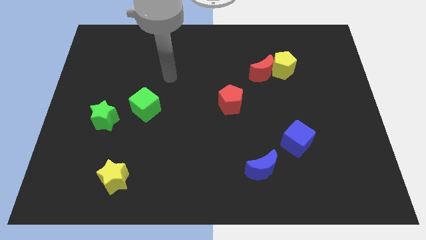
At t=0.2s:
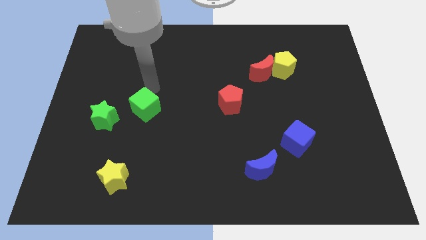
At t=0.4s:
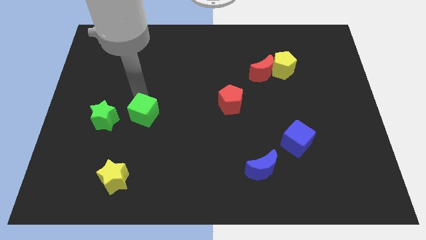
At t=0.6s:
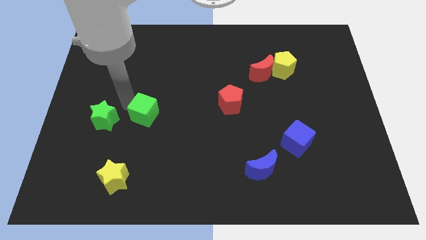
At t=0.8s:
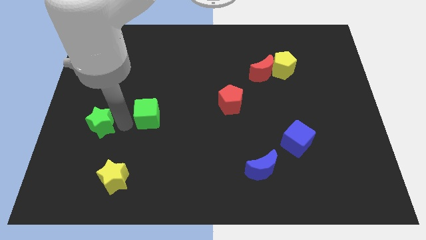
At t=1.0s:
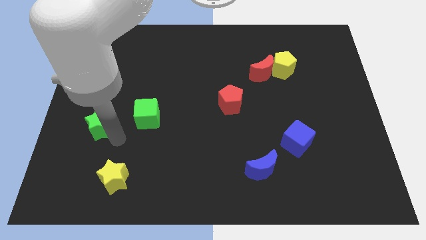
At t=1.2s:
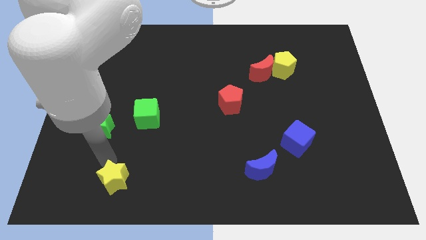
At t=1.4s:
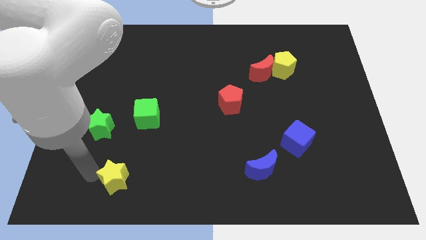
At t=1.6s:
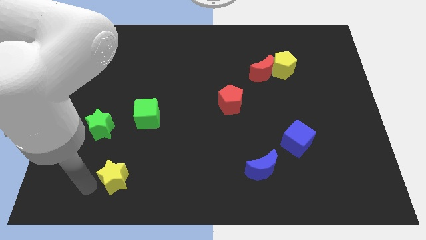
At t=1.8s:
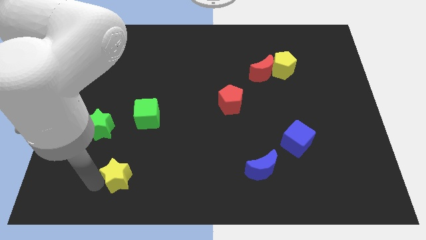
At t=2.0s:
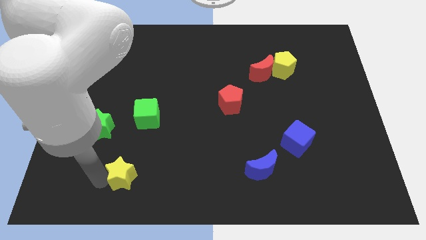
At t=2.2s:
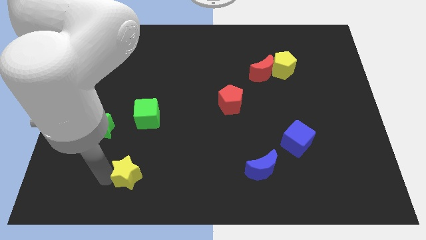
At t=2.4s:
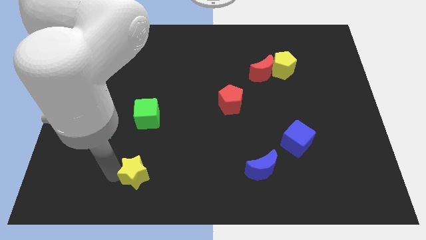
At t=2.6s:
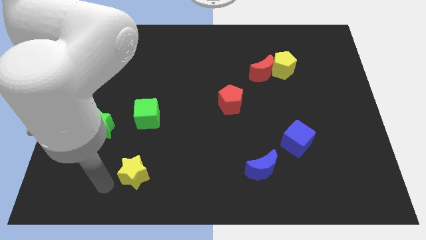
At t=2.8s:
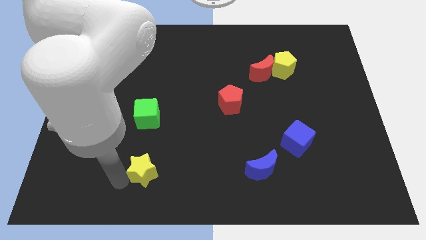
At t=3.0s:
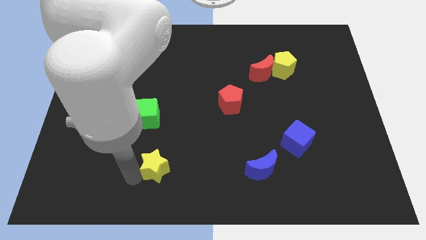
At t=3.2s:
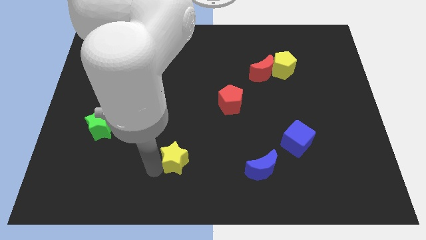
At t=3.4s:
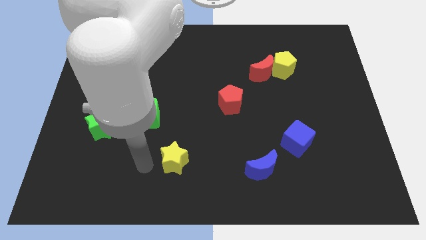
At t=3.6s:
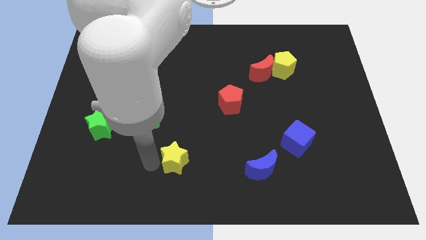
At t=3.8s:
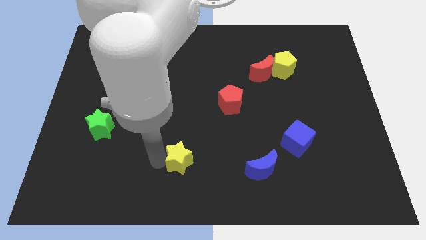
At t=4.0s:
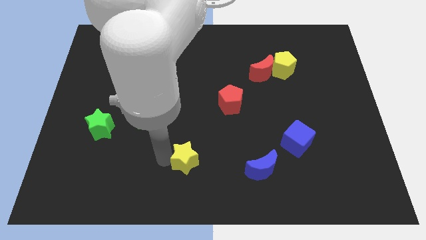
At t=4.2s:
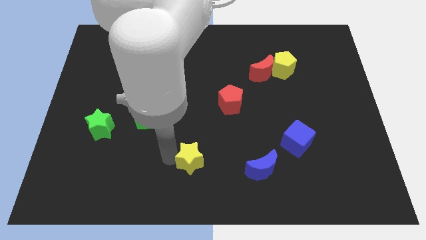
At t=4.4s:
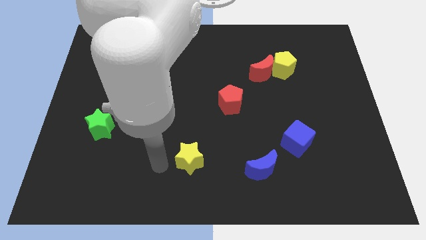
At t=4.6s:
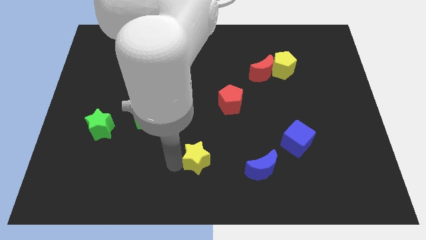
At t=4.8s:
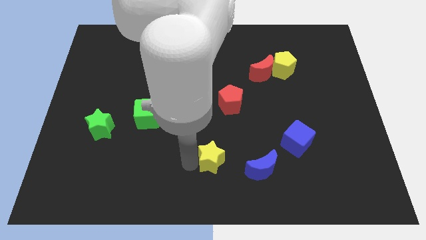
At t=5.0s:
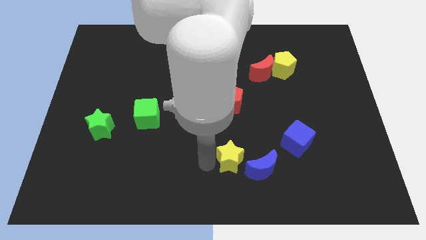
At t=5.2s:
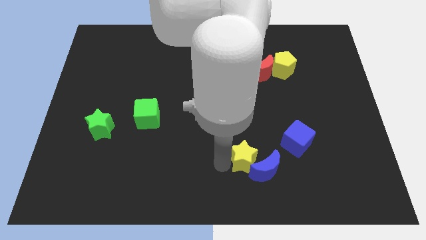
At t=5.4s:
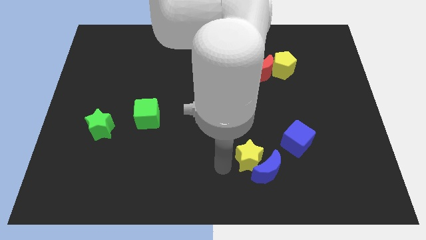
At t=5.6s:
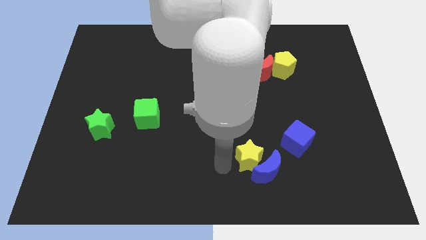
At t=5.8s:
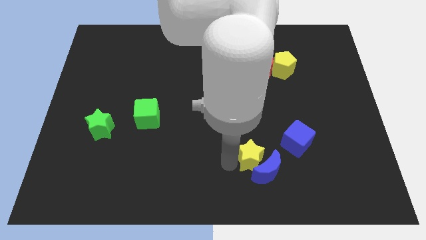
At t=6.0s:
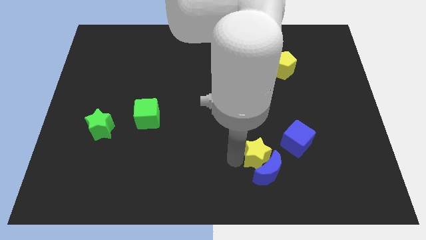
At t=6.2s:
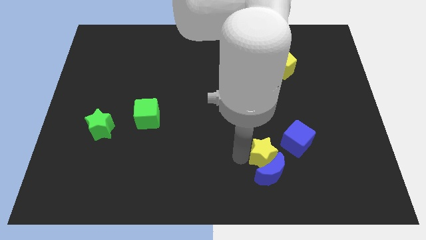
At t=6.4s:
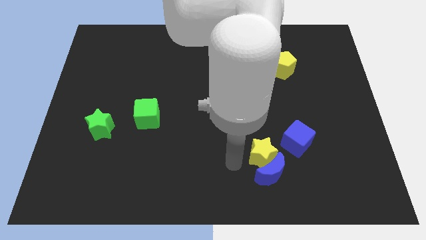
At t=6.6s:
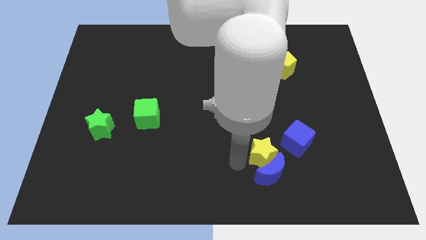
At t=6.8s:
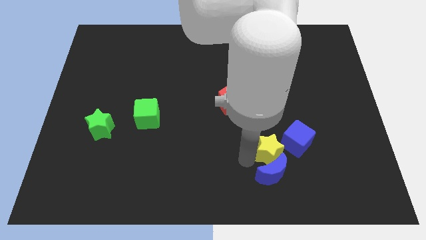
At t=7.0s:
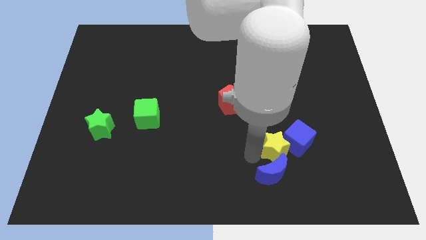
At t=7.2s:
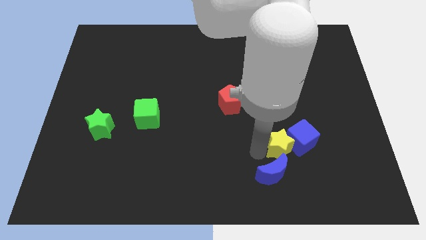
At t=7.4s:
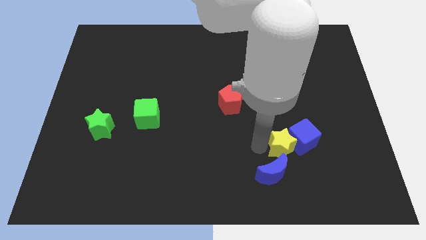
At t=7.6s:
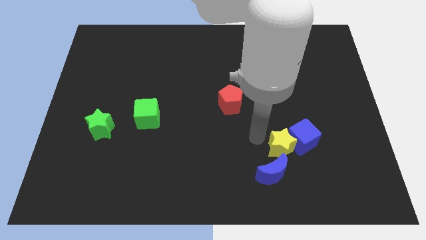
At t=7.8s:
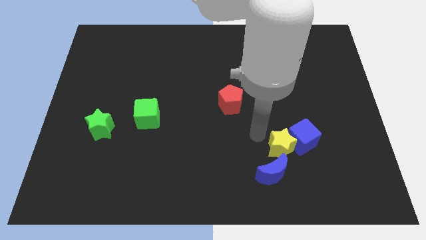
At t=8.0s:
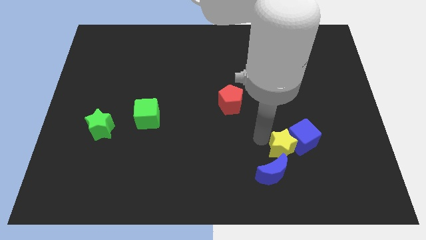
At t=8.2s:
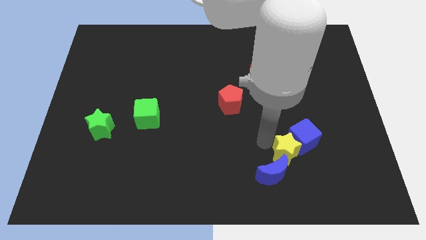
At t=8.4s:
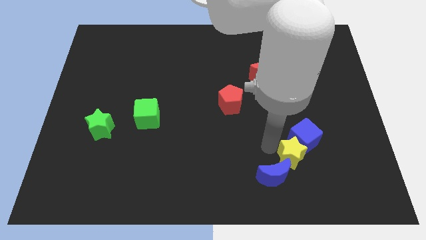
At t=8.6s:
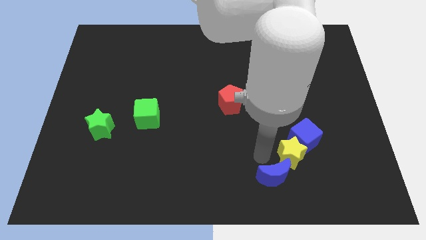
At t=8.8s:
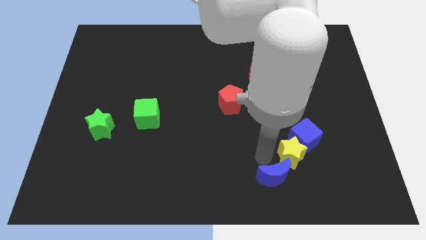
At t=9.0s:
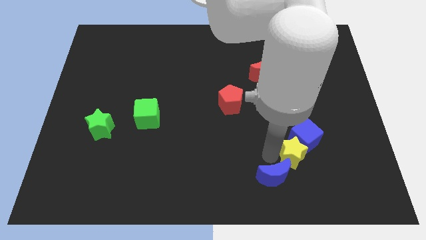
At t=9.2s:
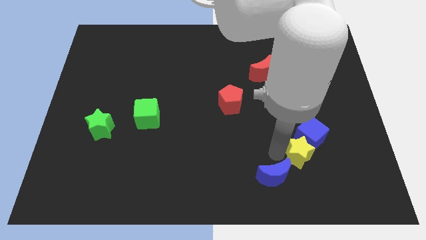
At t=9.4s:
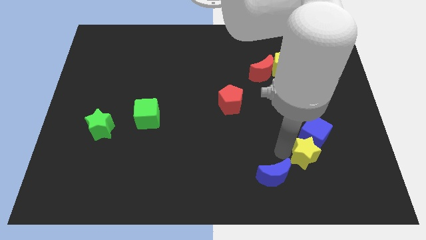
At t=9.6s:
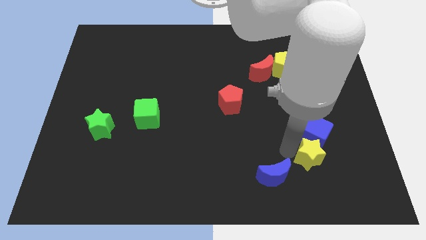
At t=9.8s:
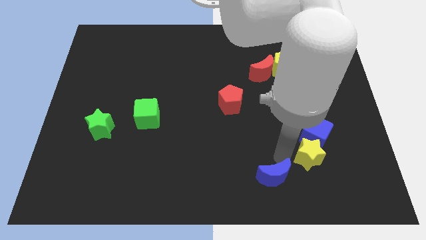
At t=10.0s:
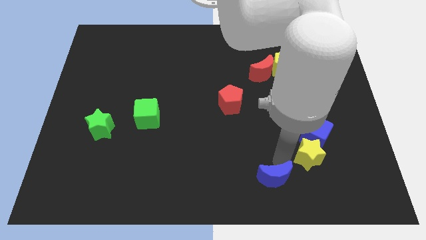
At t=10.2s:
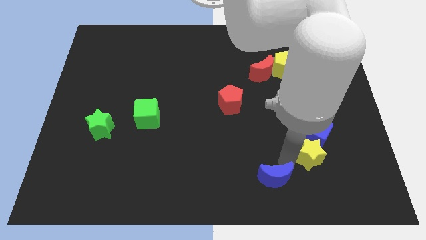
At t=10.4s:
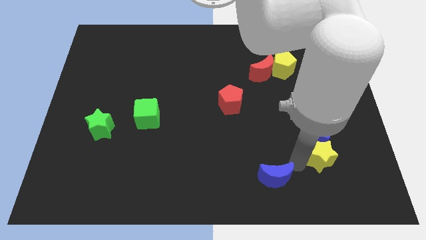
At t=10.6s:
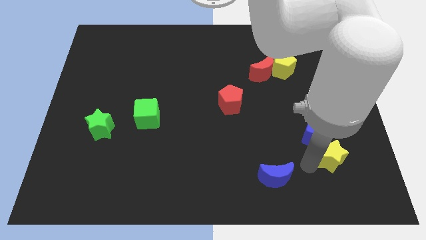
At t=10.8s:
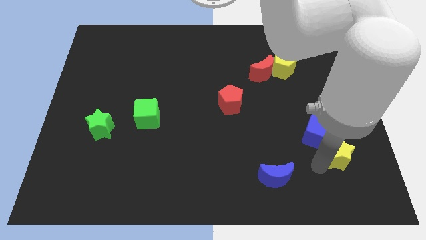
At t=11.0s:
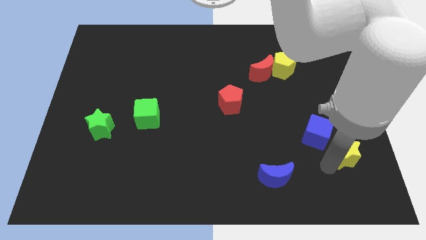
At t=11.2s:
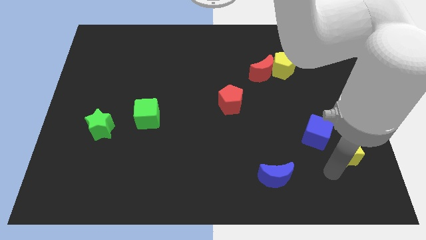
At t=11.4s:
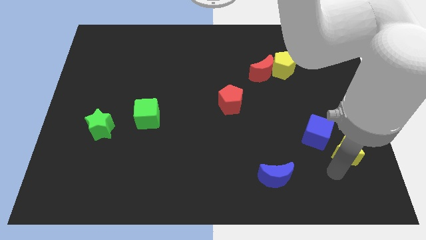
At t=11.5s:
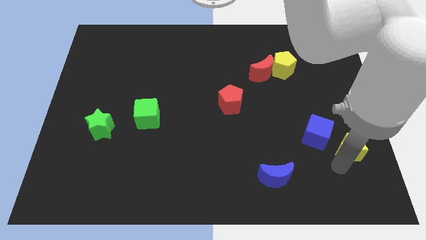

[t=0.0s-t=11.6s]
slide the yellow star just right of the blue cube

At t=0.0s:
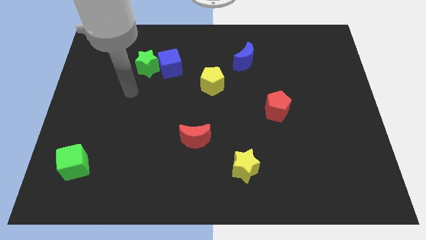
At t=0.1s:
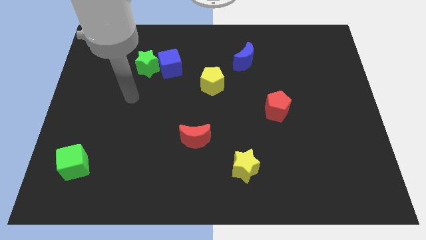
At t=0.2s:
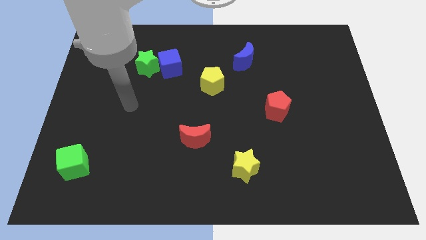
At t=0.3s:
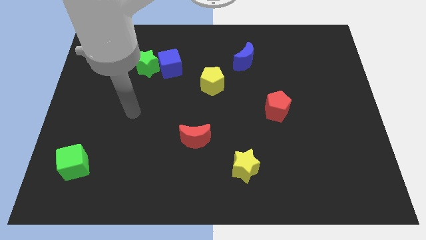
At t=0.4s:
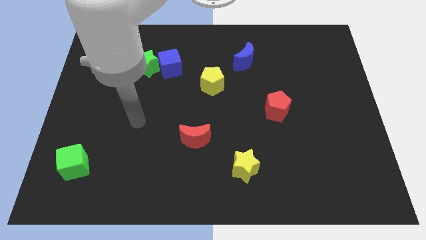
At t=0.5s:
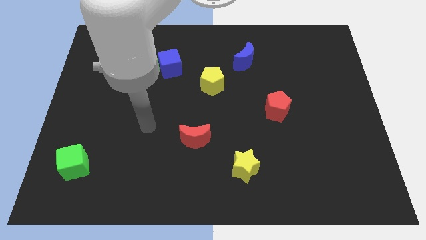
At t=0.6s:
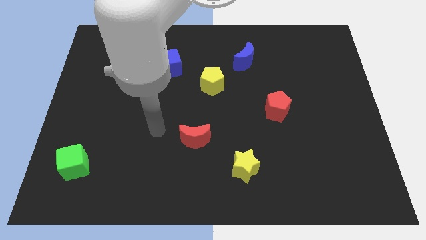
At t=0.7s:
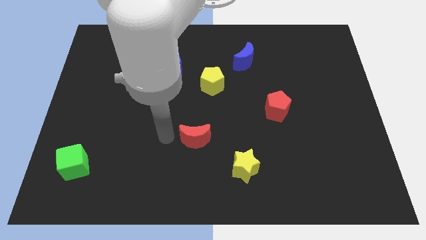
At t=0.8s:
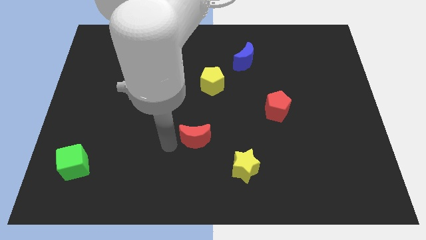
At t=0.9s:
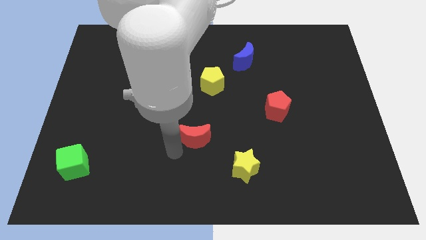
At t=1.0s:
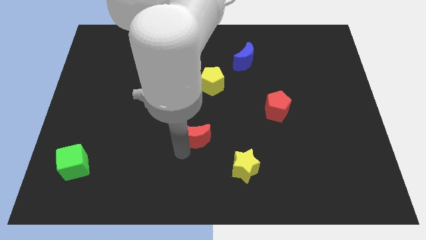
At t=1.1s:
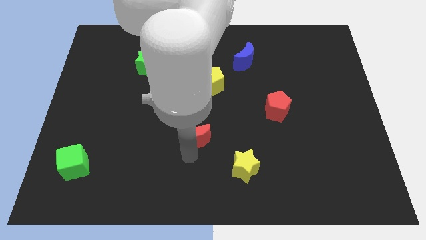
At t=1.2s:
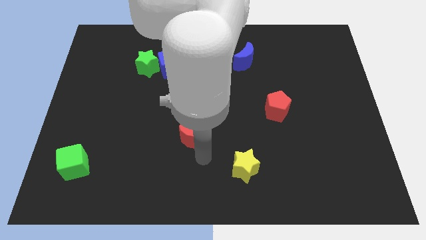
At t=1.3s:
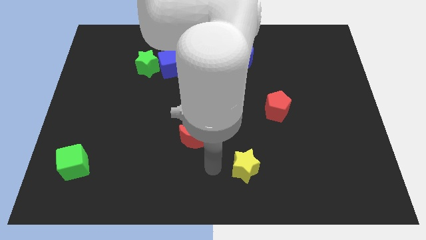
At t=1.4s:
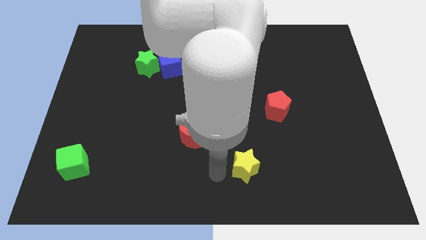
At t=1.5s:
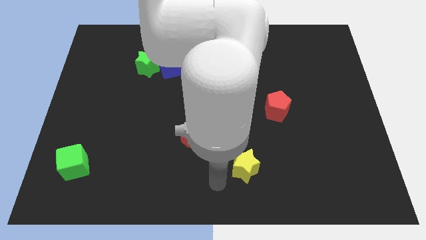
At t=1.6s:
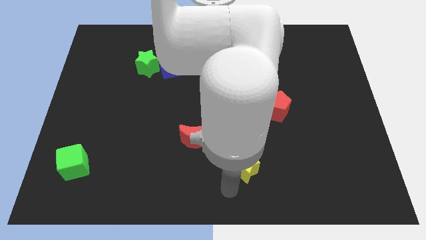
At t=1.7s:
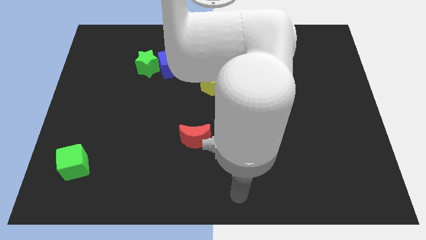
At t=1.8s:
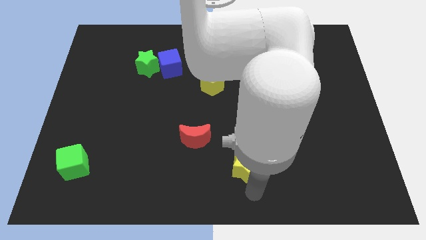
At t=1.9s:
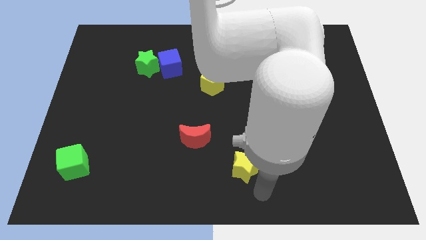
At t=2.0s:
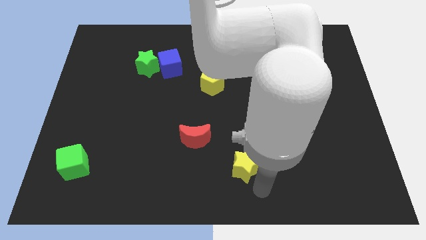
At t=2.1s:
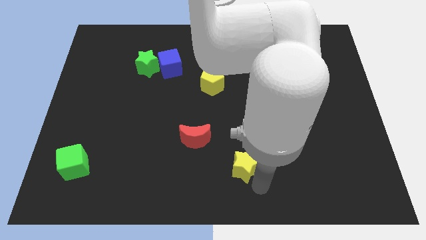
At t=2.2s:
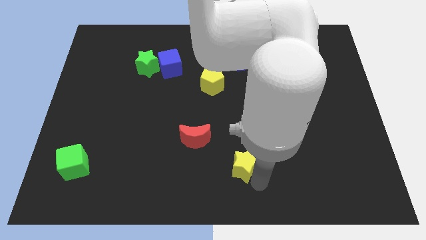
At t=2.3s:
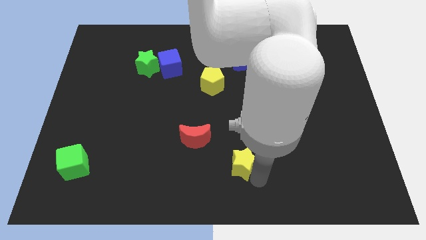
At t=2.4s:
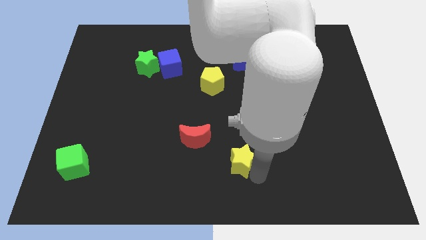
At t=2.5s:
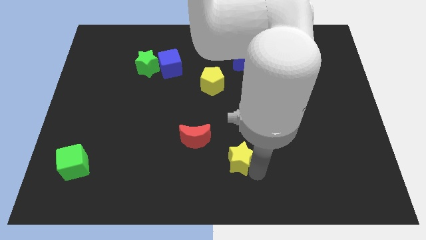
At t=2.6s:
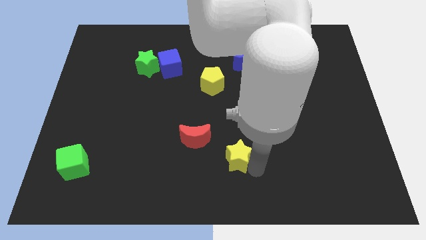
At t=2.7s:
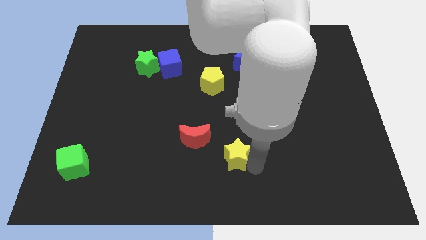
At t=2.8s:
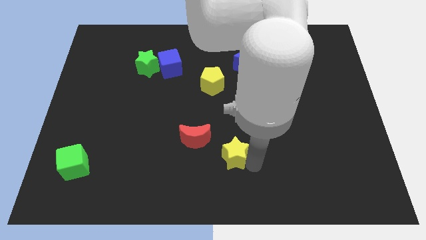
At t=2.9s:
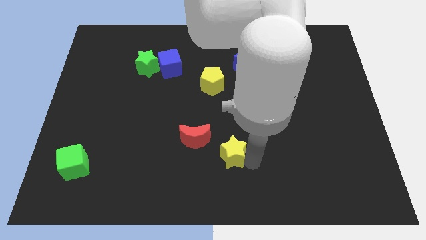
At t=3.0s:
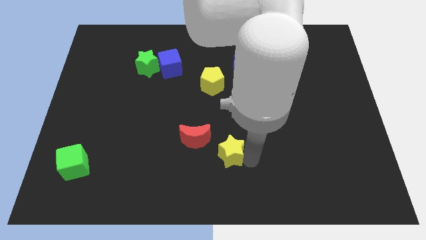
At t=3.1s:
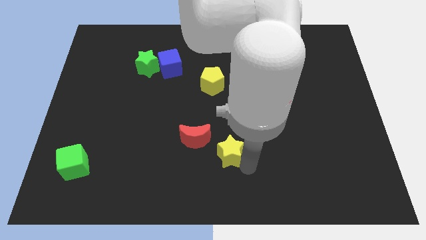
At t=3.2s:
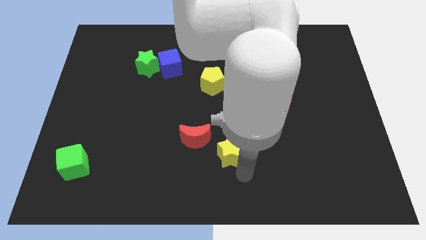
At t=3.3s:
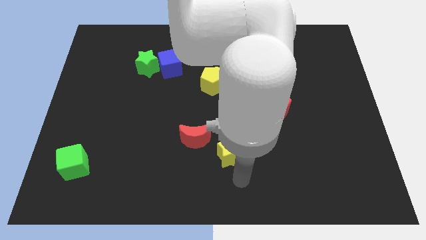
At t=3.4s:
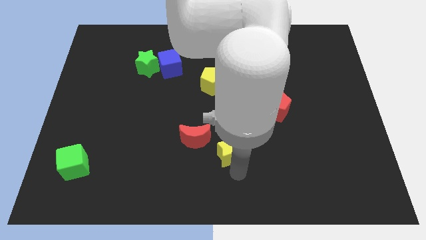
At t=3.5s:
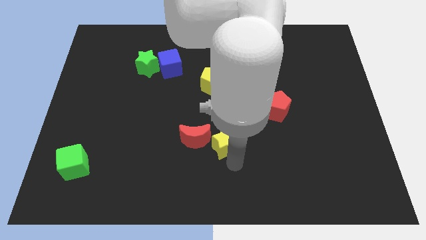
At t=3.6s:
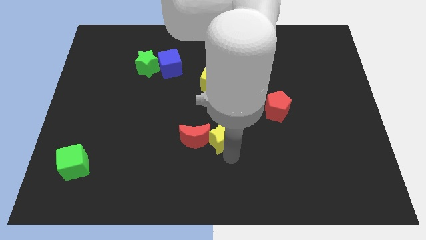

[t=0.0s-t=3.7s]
put the yellow star diagonally up and to the right of the red moon
